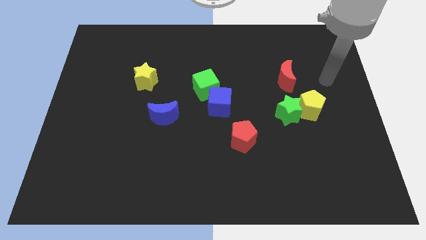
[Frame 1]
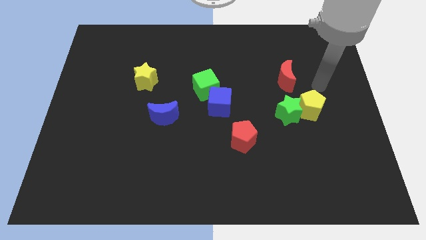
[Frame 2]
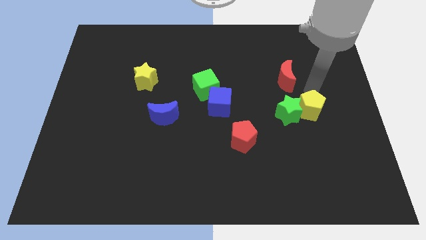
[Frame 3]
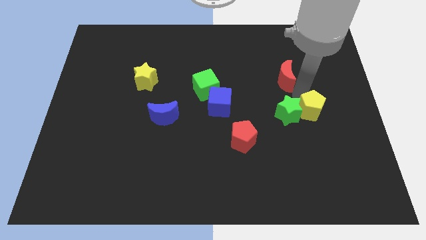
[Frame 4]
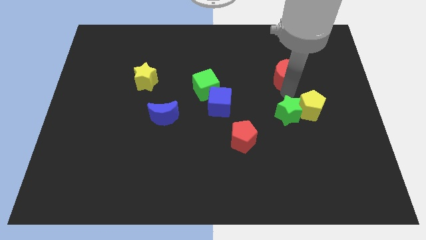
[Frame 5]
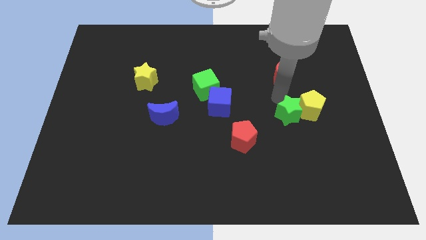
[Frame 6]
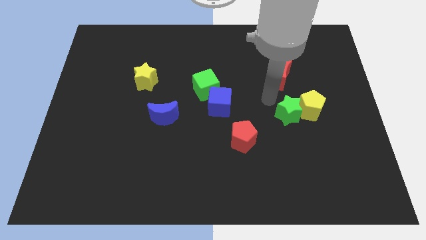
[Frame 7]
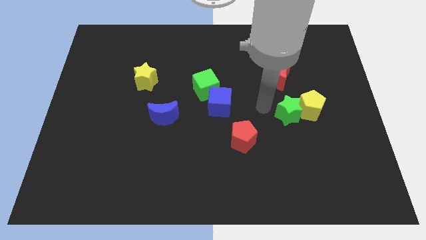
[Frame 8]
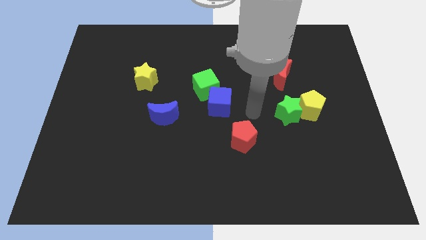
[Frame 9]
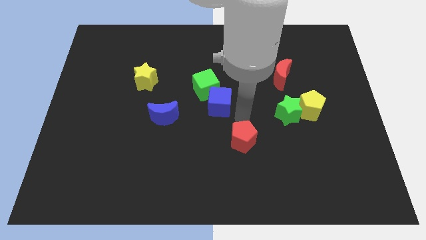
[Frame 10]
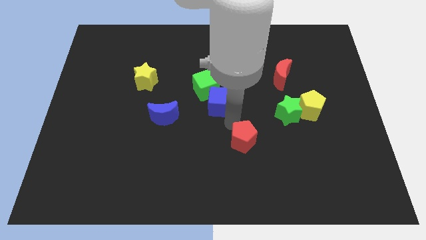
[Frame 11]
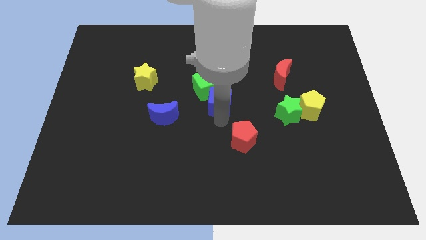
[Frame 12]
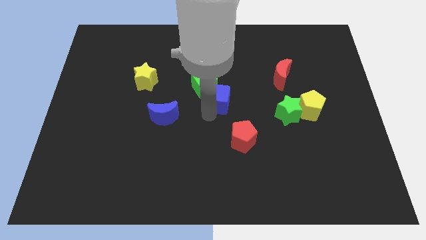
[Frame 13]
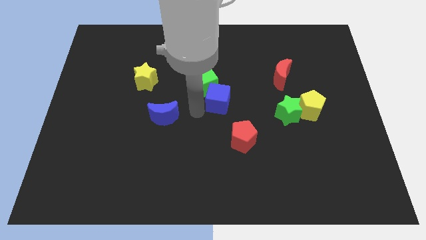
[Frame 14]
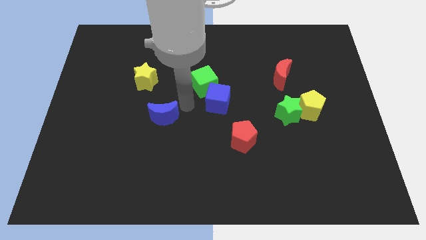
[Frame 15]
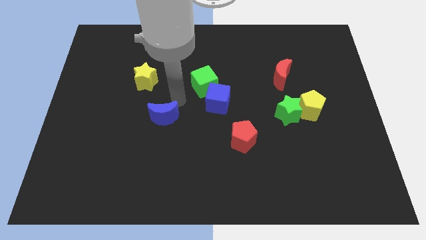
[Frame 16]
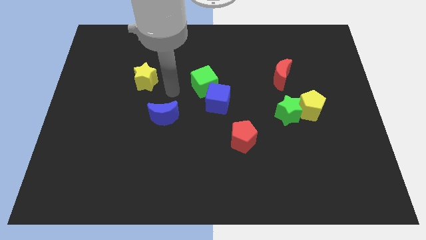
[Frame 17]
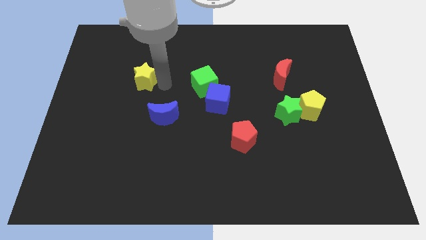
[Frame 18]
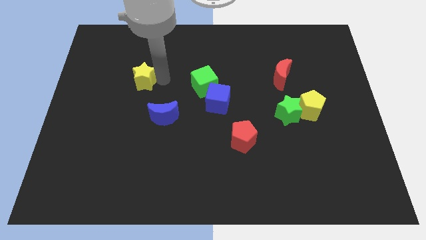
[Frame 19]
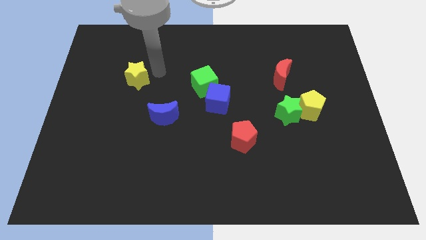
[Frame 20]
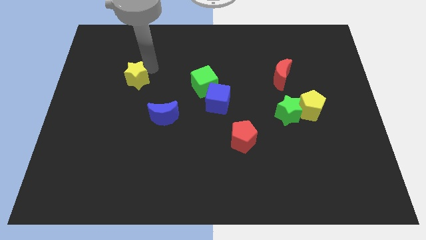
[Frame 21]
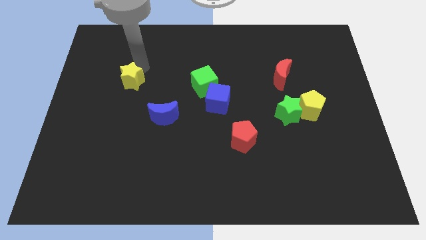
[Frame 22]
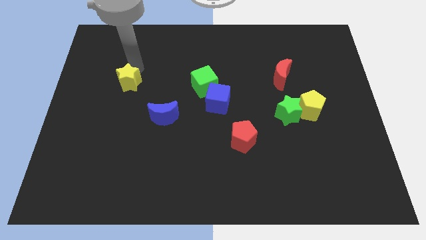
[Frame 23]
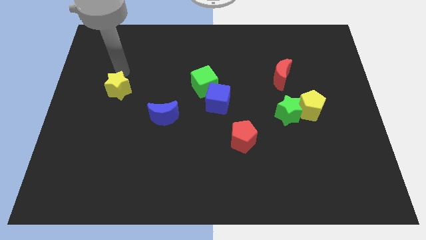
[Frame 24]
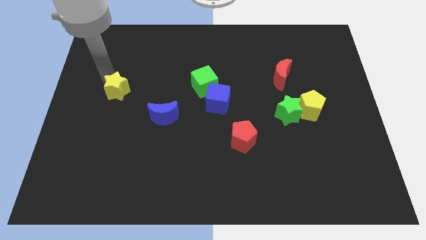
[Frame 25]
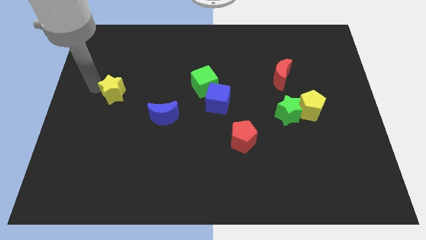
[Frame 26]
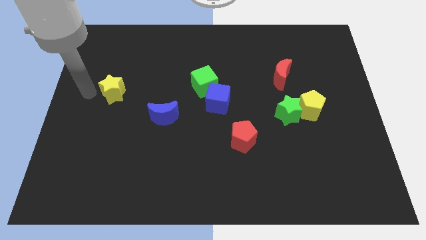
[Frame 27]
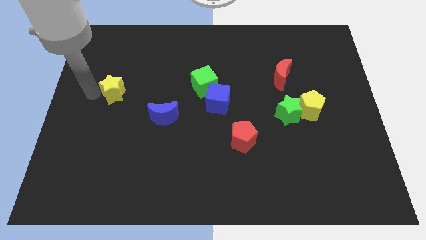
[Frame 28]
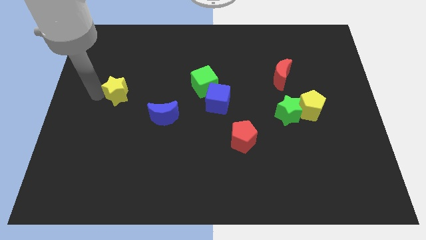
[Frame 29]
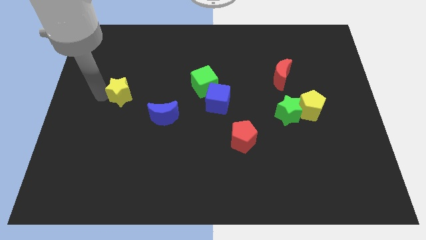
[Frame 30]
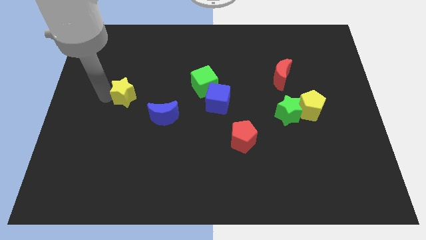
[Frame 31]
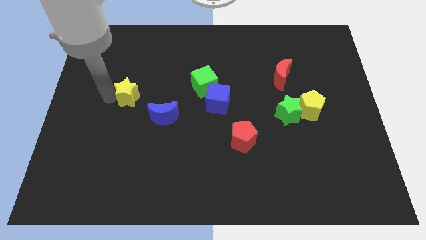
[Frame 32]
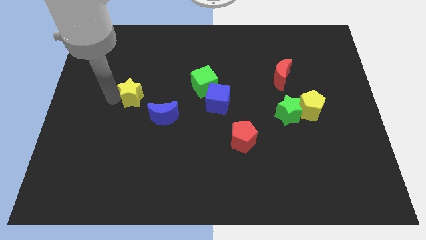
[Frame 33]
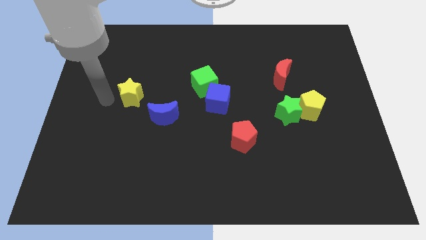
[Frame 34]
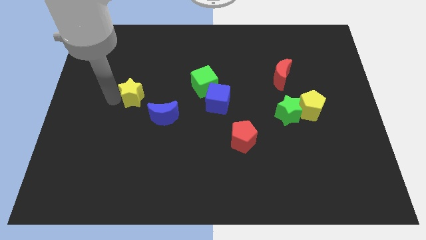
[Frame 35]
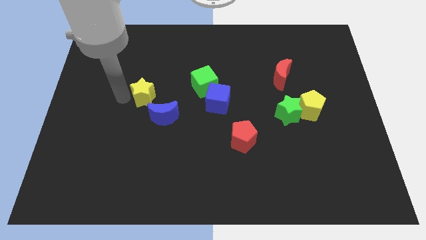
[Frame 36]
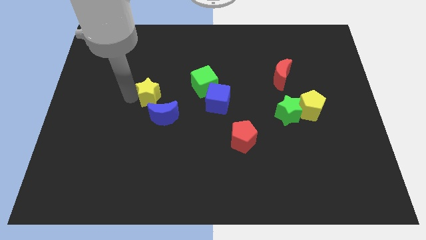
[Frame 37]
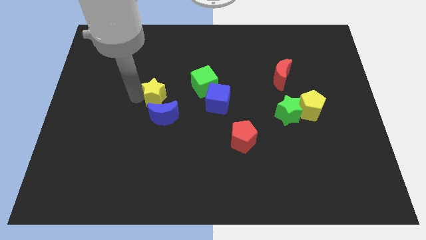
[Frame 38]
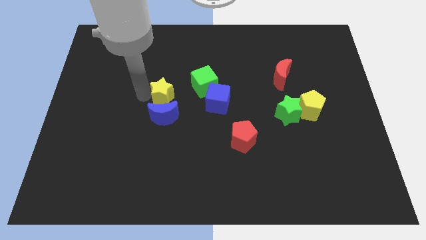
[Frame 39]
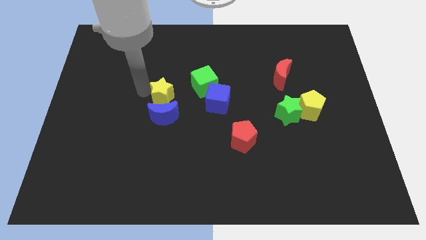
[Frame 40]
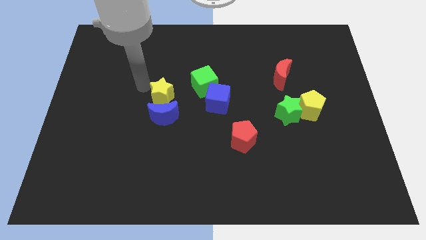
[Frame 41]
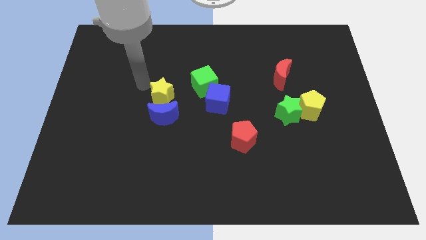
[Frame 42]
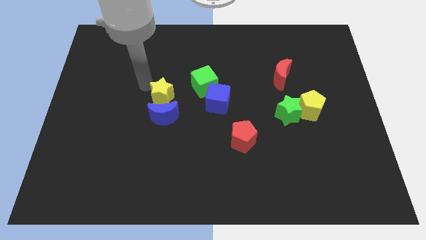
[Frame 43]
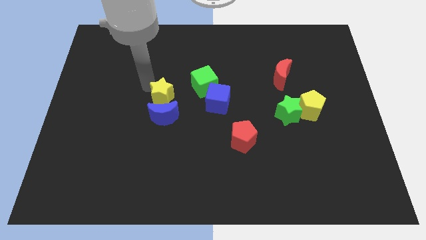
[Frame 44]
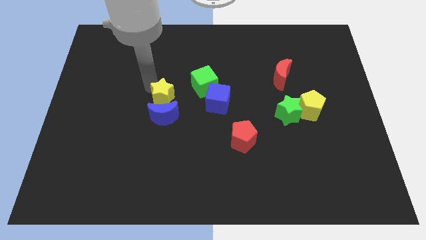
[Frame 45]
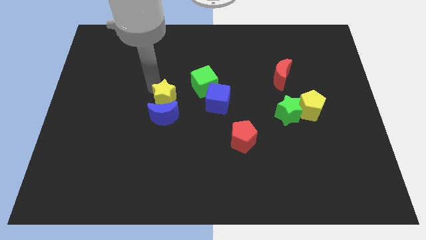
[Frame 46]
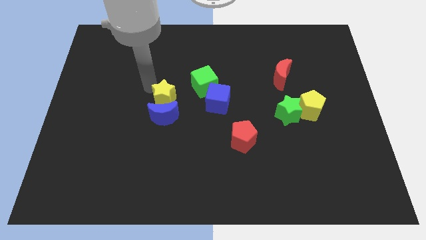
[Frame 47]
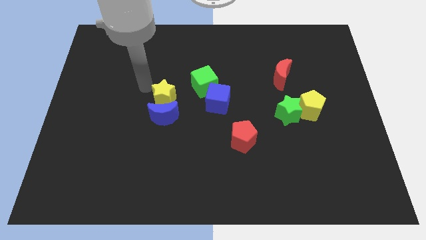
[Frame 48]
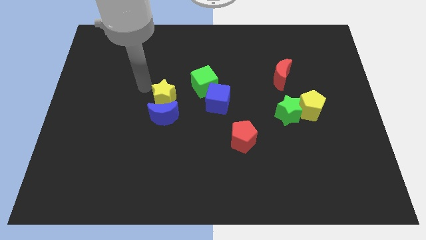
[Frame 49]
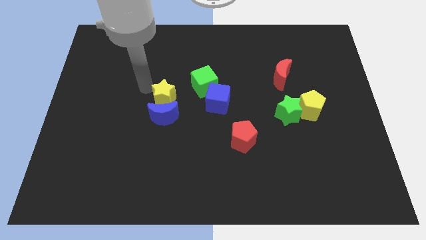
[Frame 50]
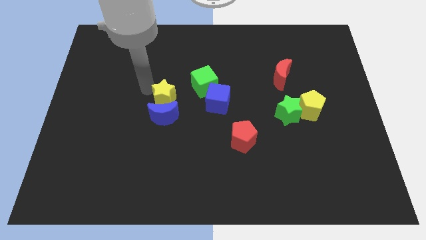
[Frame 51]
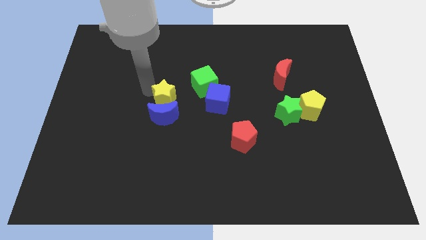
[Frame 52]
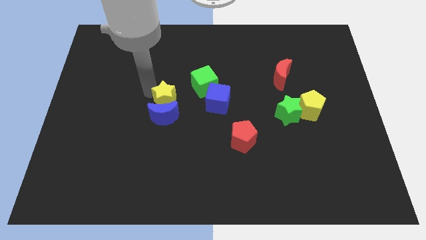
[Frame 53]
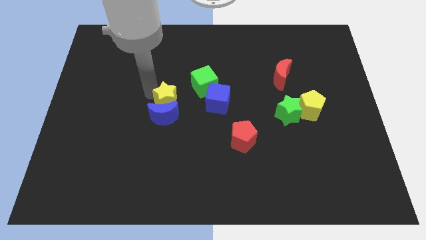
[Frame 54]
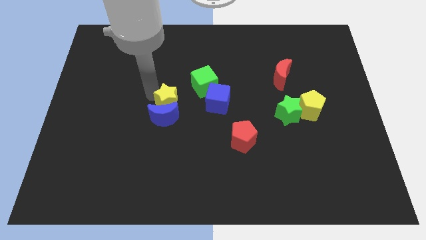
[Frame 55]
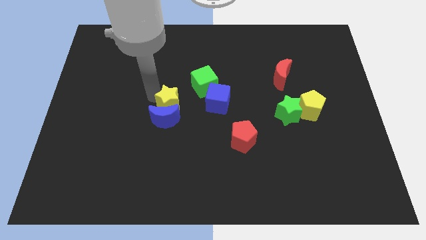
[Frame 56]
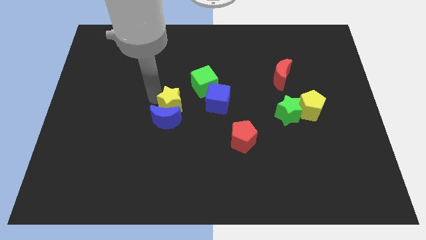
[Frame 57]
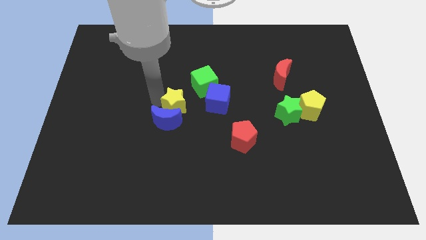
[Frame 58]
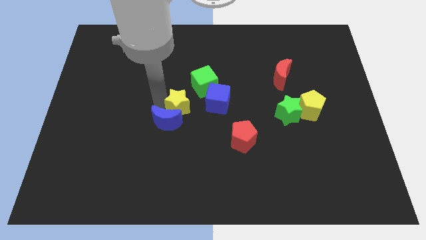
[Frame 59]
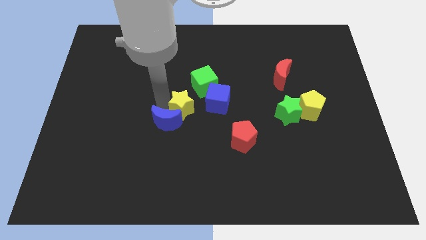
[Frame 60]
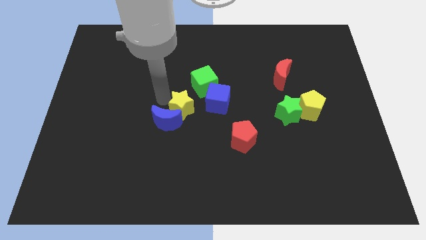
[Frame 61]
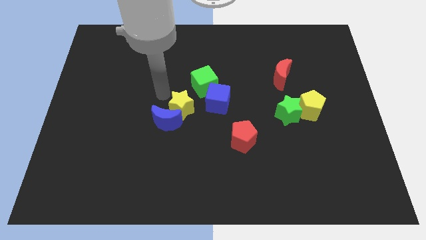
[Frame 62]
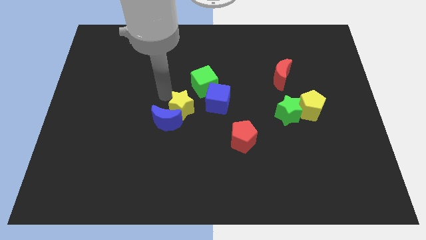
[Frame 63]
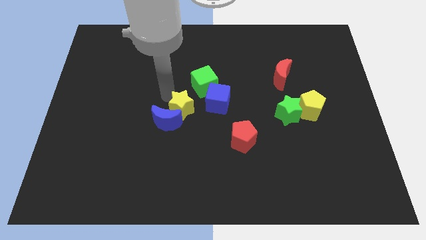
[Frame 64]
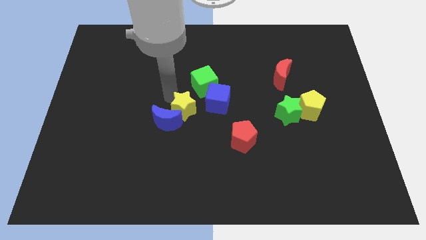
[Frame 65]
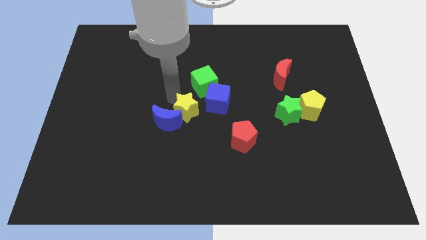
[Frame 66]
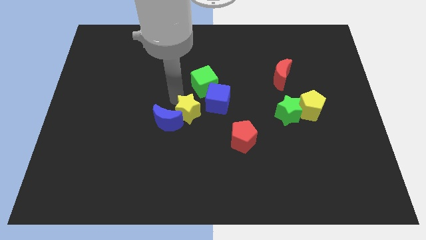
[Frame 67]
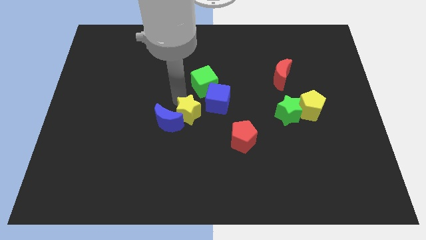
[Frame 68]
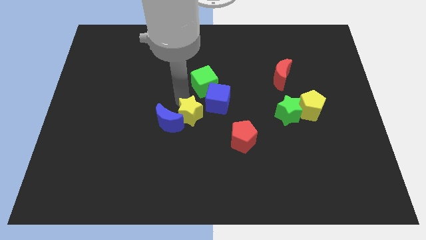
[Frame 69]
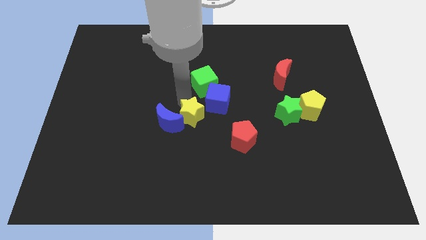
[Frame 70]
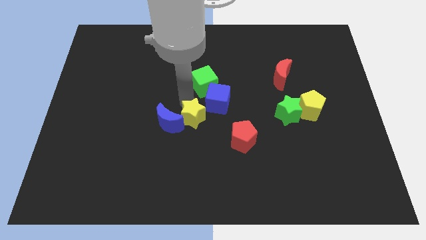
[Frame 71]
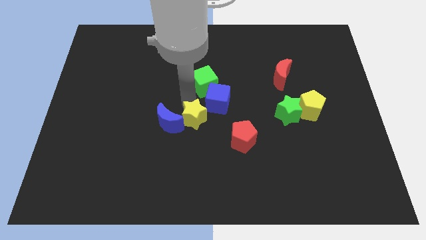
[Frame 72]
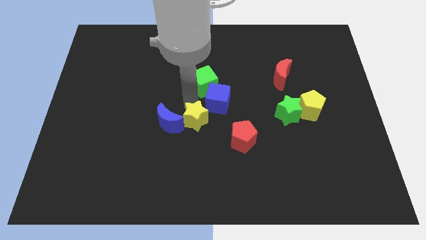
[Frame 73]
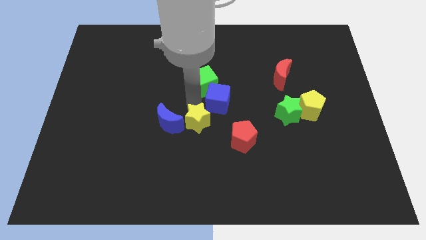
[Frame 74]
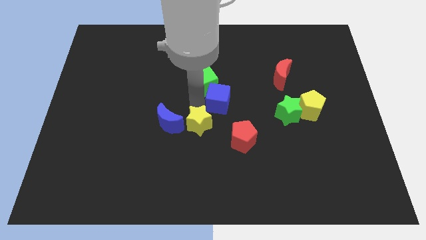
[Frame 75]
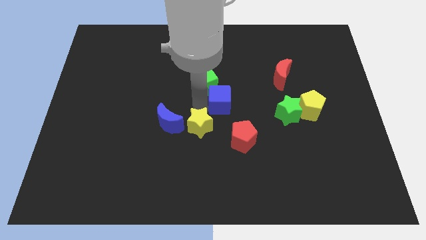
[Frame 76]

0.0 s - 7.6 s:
push the yellow star down and right

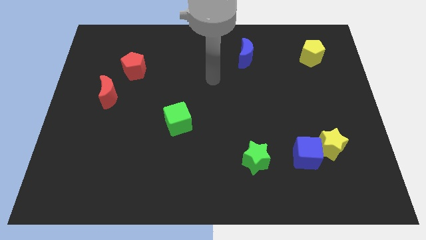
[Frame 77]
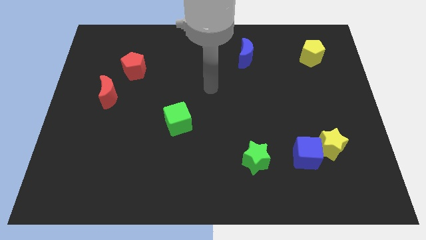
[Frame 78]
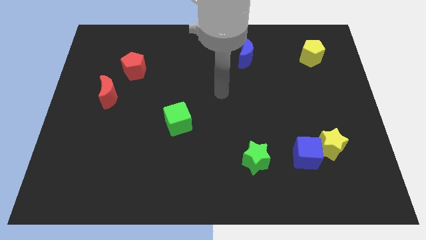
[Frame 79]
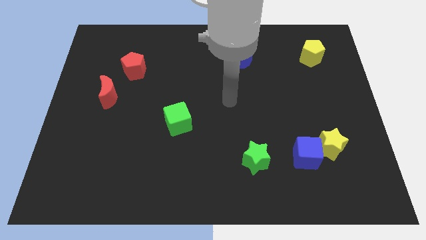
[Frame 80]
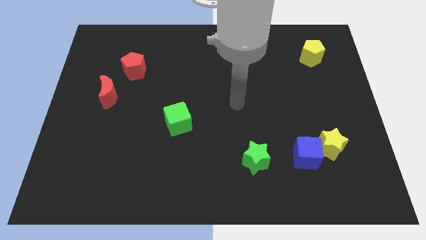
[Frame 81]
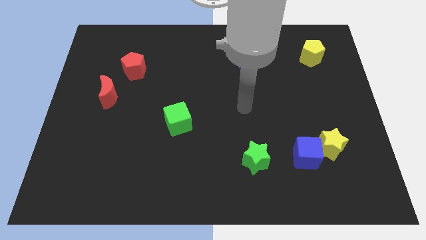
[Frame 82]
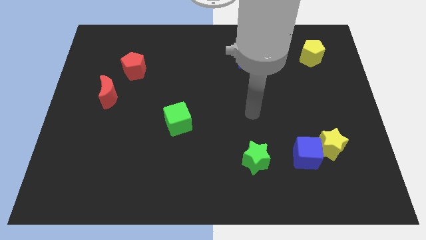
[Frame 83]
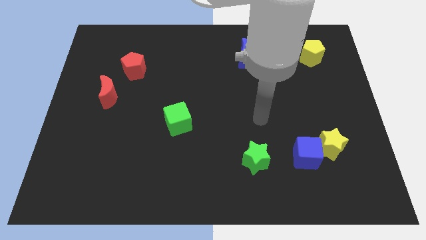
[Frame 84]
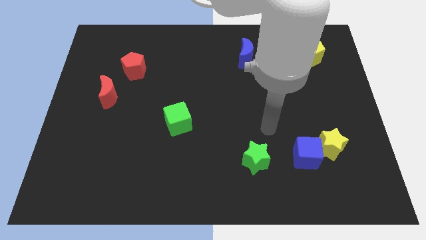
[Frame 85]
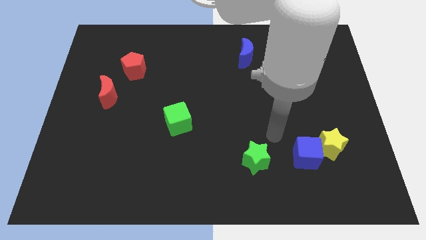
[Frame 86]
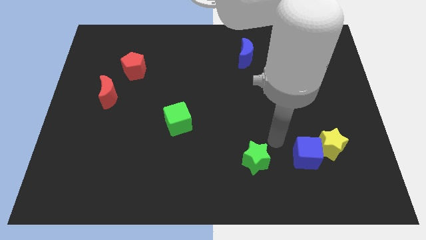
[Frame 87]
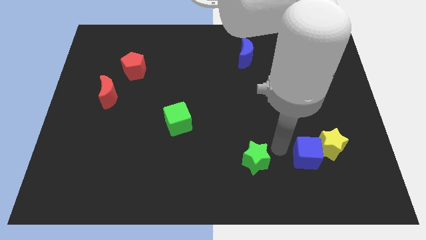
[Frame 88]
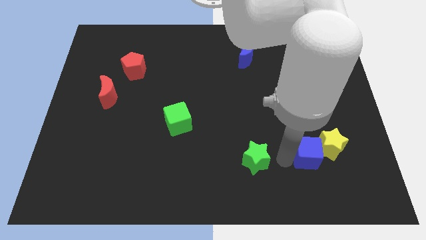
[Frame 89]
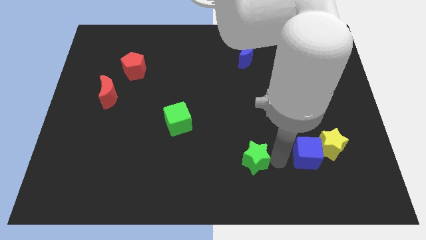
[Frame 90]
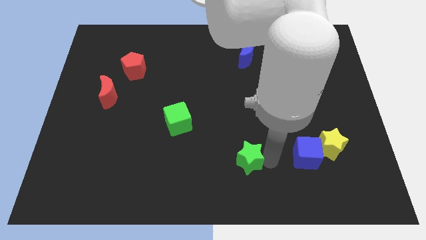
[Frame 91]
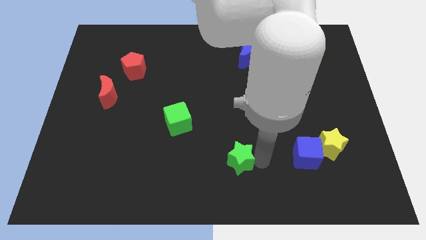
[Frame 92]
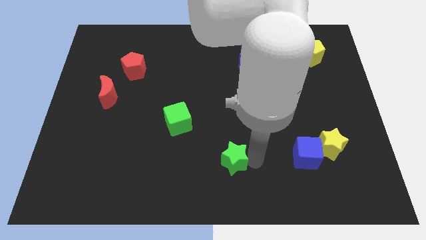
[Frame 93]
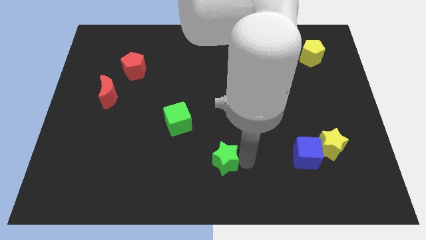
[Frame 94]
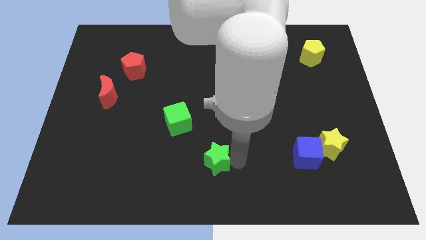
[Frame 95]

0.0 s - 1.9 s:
slightly slide the green star left
